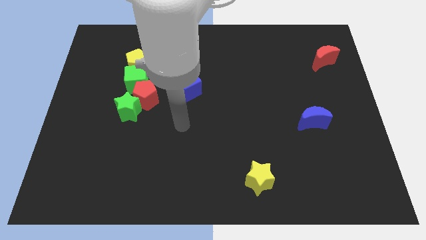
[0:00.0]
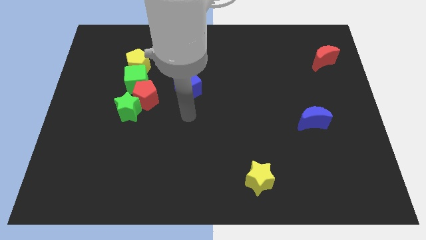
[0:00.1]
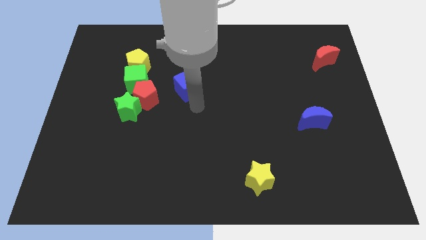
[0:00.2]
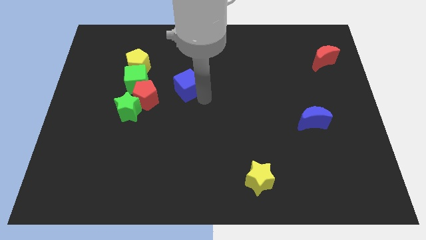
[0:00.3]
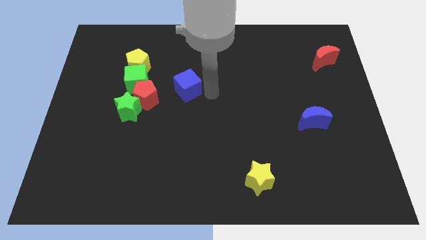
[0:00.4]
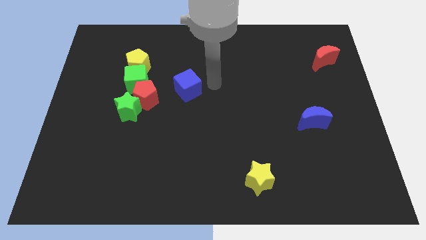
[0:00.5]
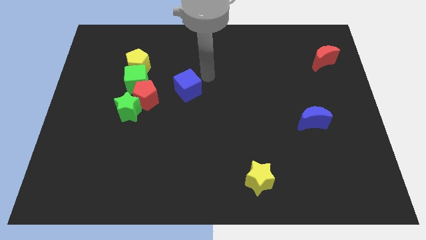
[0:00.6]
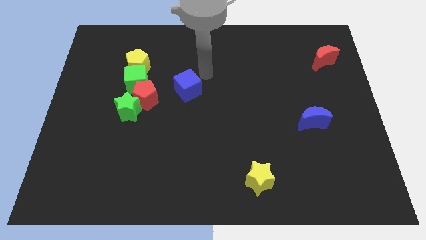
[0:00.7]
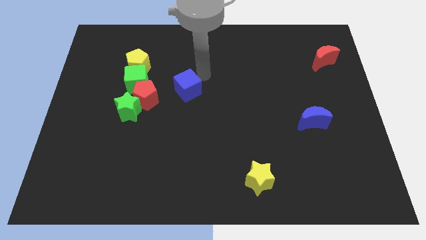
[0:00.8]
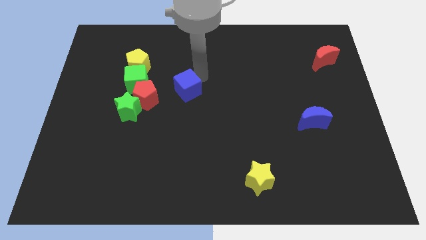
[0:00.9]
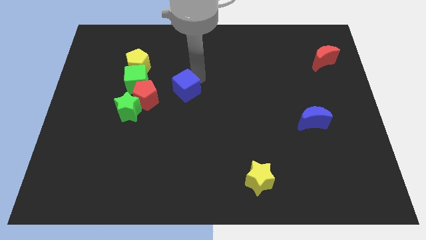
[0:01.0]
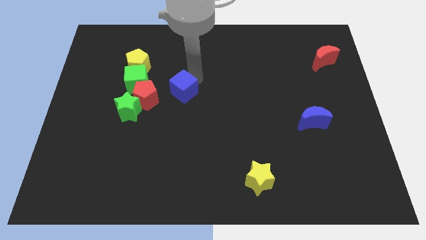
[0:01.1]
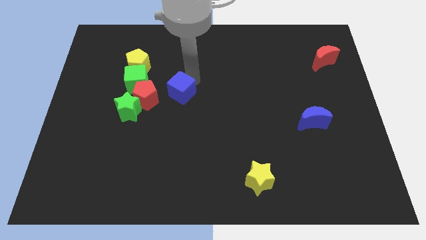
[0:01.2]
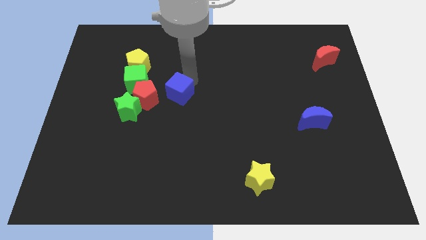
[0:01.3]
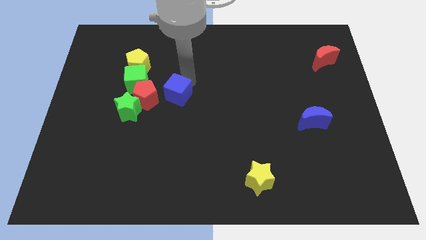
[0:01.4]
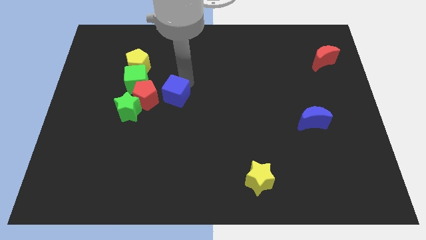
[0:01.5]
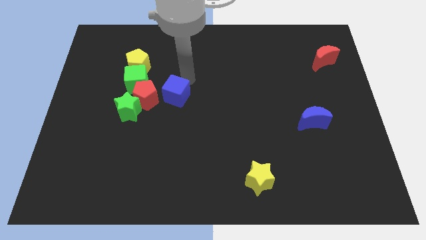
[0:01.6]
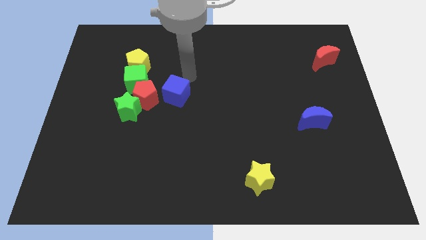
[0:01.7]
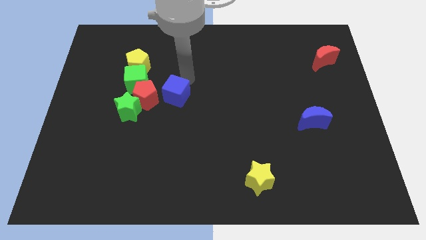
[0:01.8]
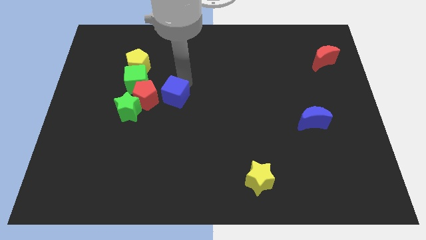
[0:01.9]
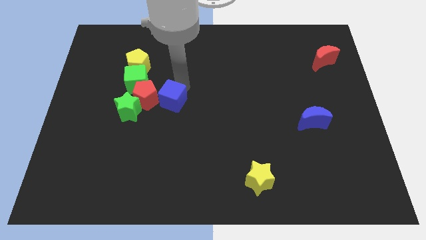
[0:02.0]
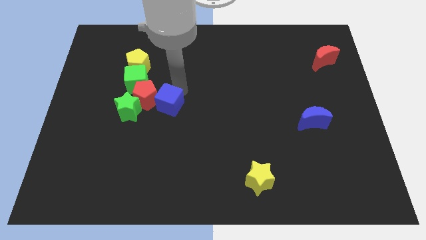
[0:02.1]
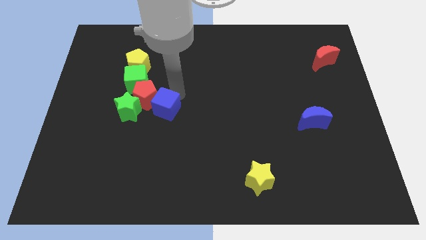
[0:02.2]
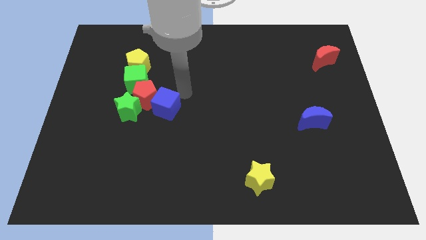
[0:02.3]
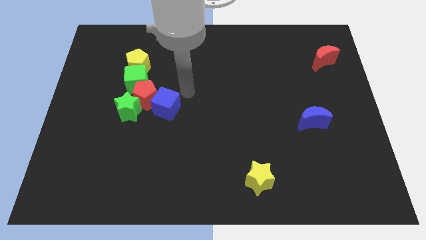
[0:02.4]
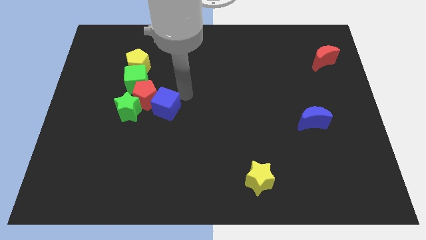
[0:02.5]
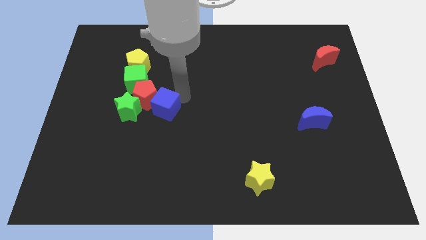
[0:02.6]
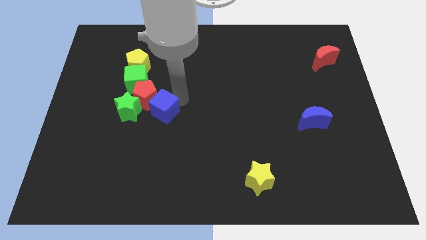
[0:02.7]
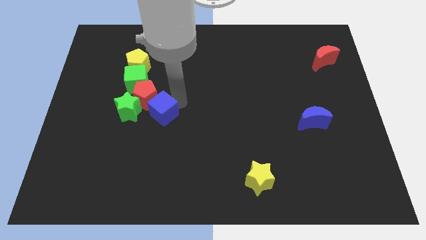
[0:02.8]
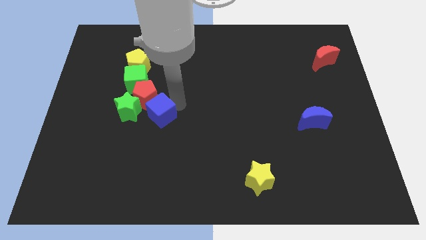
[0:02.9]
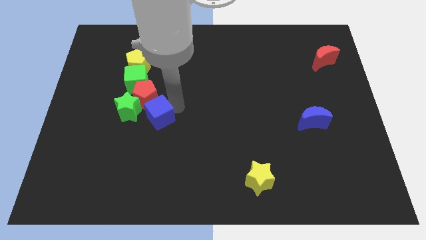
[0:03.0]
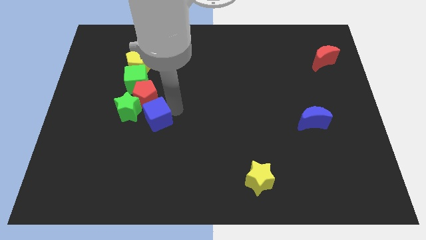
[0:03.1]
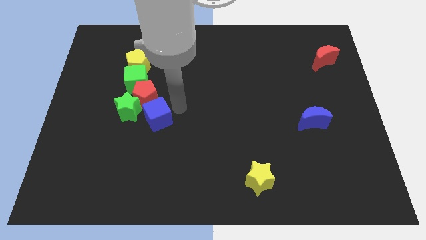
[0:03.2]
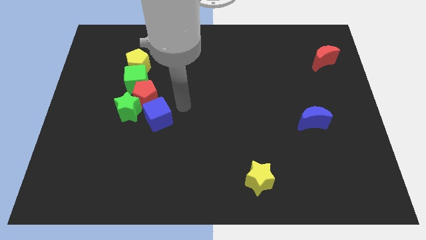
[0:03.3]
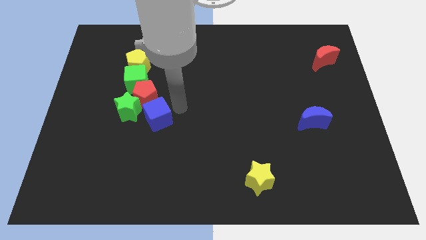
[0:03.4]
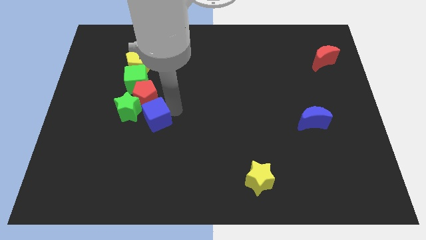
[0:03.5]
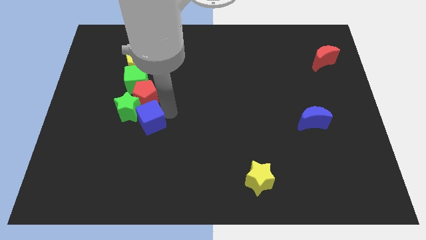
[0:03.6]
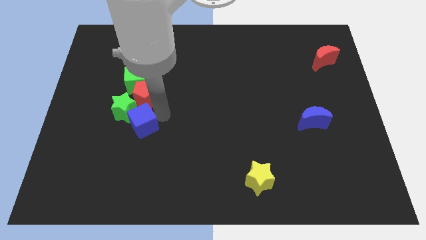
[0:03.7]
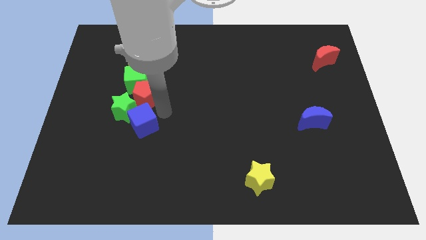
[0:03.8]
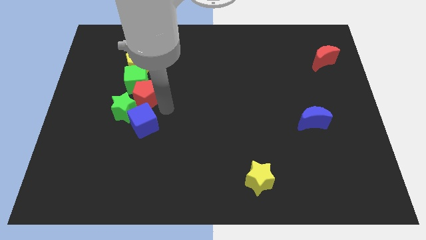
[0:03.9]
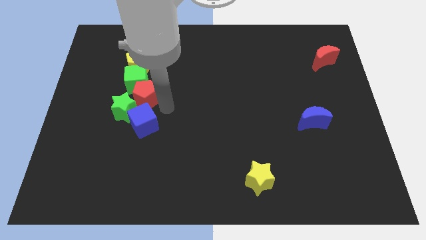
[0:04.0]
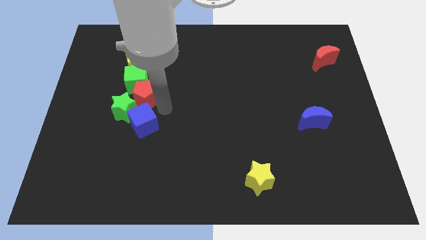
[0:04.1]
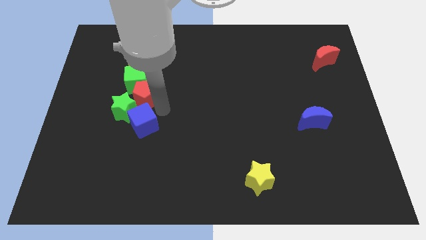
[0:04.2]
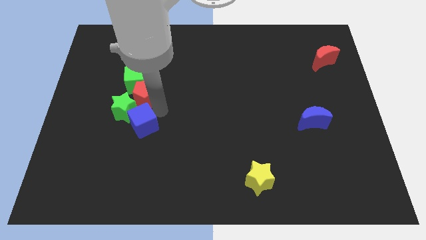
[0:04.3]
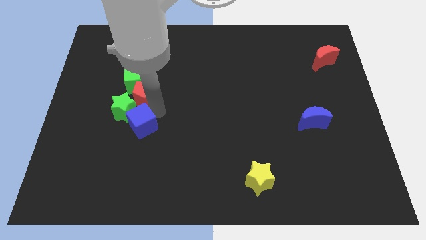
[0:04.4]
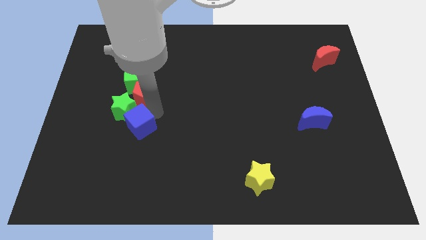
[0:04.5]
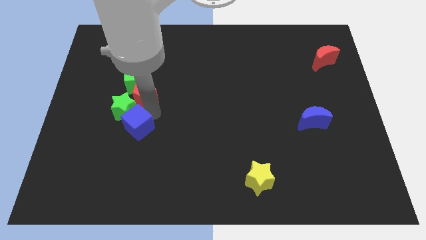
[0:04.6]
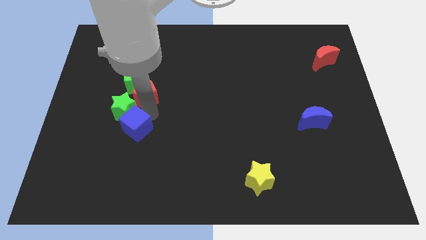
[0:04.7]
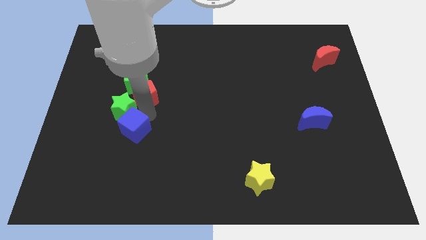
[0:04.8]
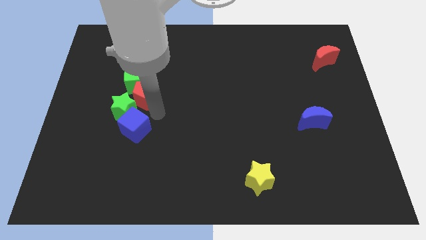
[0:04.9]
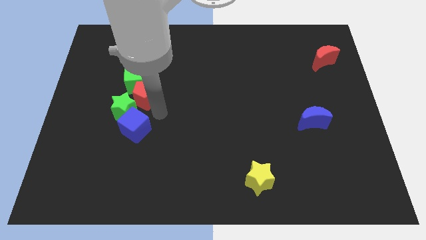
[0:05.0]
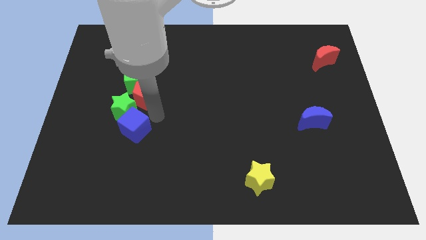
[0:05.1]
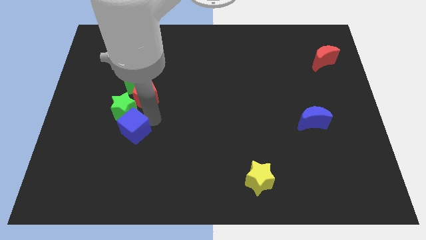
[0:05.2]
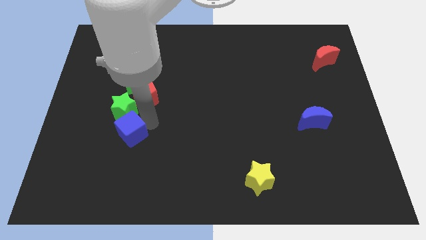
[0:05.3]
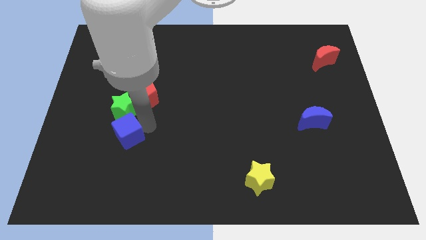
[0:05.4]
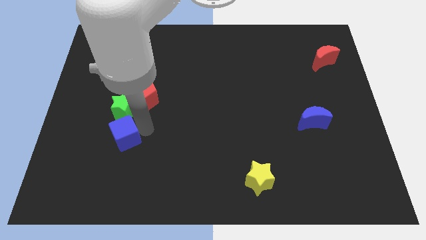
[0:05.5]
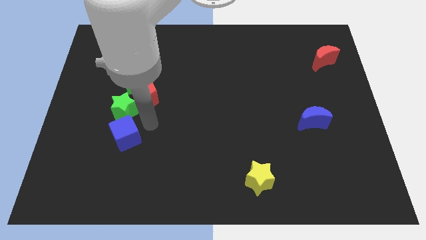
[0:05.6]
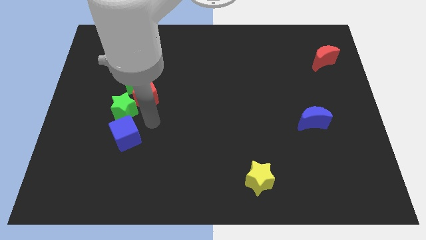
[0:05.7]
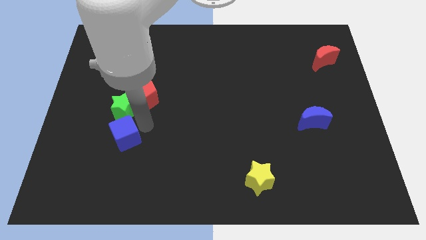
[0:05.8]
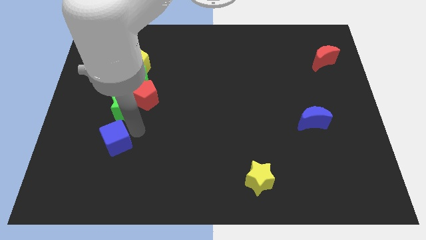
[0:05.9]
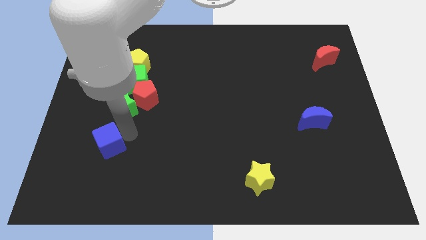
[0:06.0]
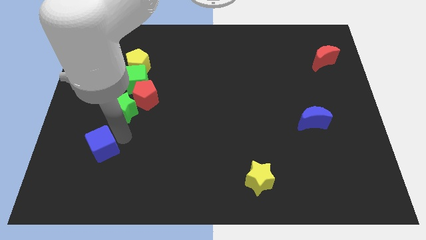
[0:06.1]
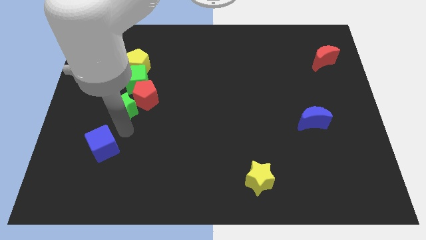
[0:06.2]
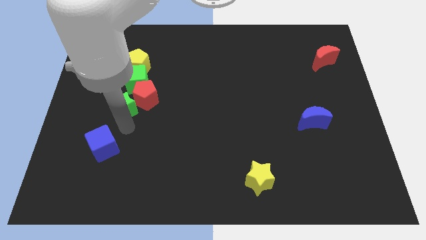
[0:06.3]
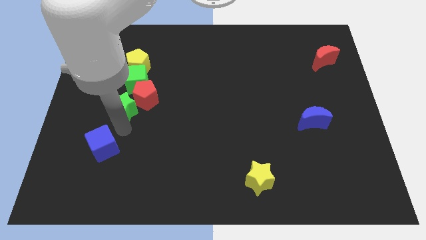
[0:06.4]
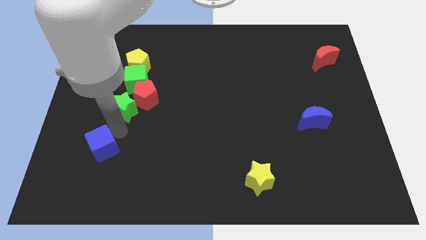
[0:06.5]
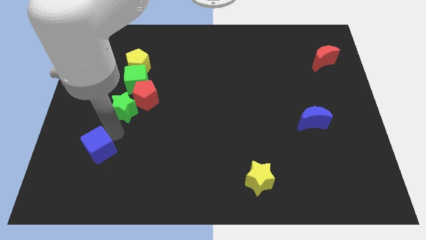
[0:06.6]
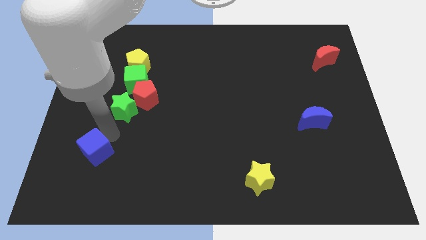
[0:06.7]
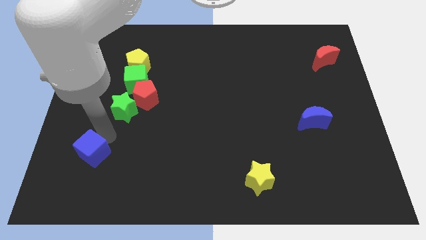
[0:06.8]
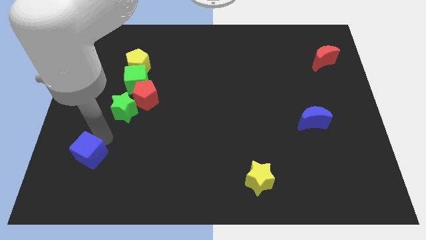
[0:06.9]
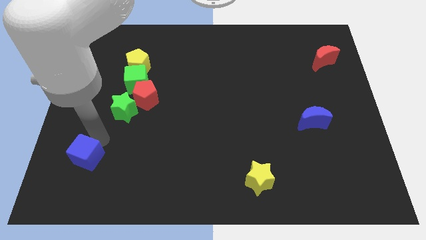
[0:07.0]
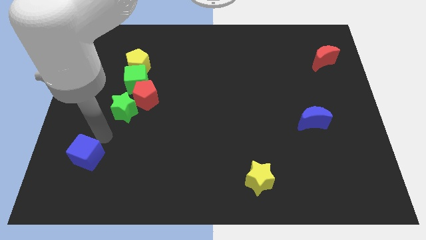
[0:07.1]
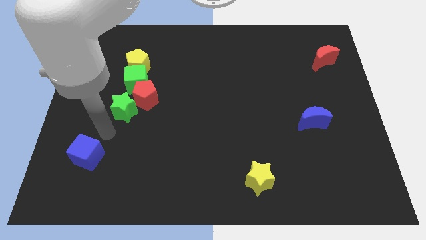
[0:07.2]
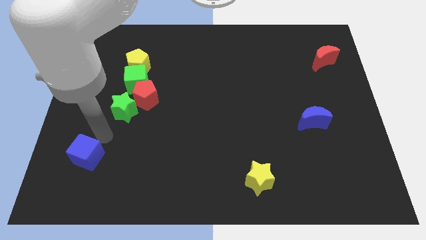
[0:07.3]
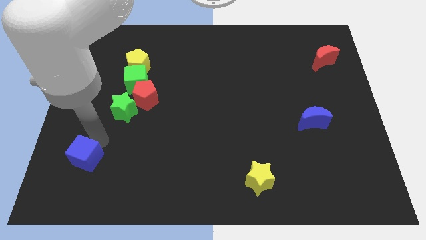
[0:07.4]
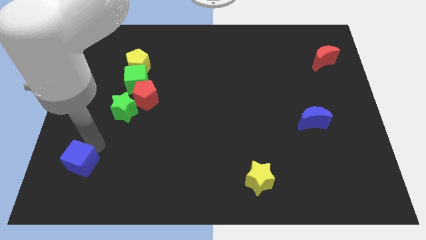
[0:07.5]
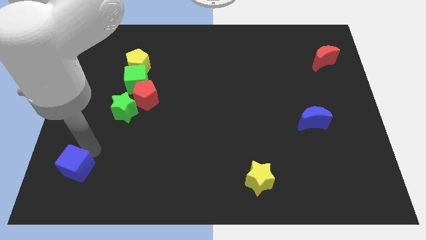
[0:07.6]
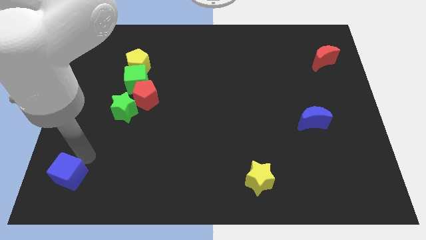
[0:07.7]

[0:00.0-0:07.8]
move the blue cube to the bottom left corner
